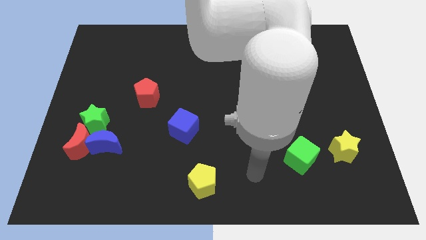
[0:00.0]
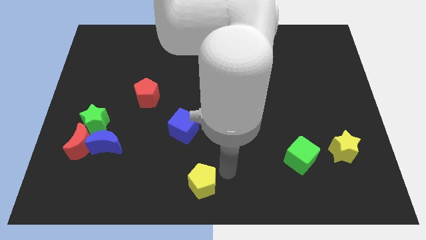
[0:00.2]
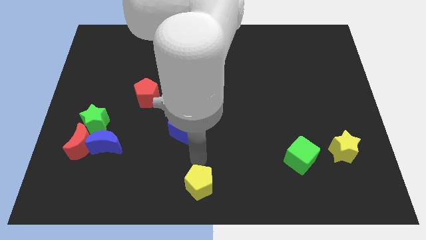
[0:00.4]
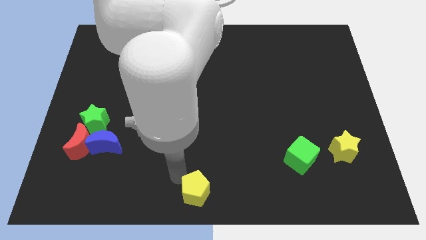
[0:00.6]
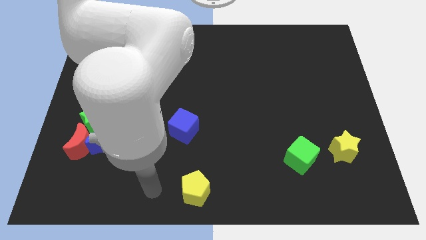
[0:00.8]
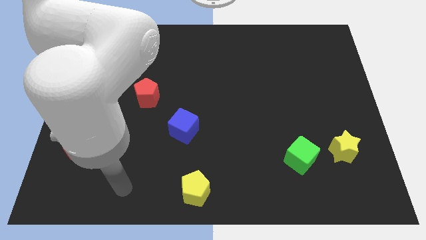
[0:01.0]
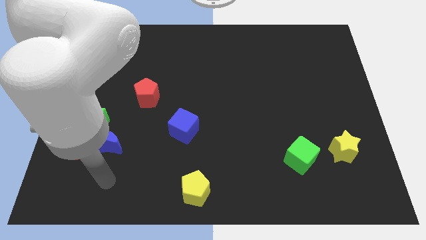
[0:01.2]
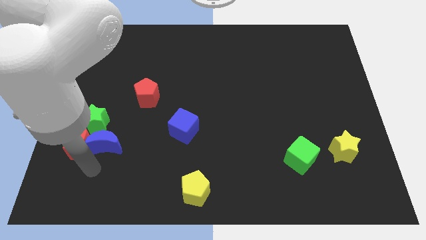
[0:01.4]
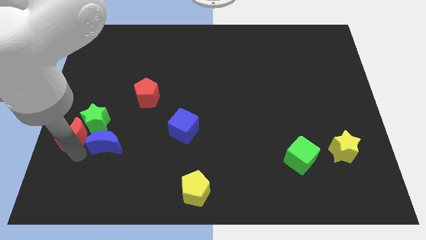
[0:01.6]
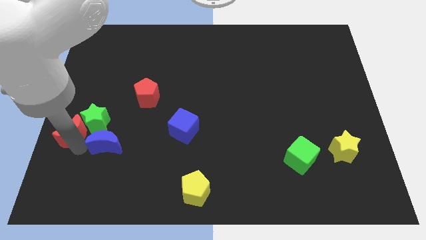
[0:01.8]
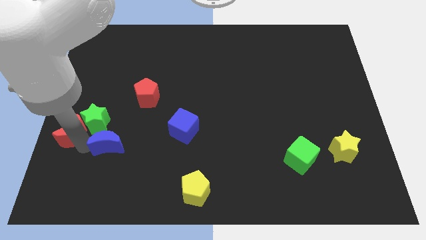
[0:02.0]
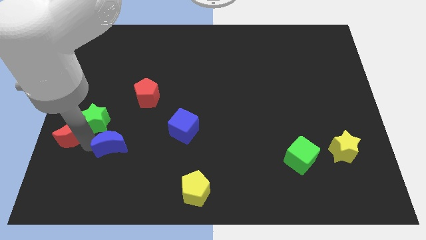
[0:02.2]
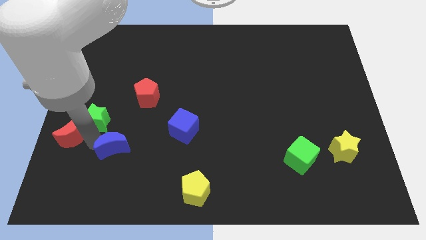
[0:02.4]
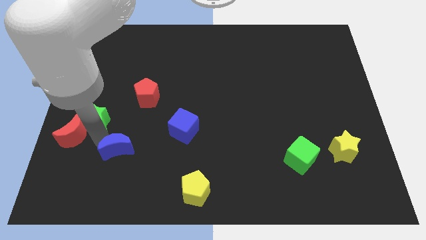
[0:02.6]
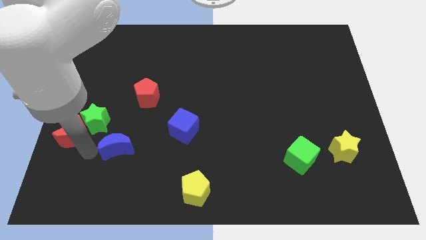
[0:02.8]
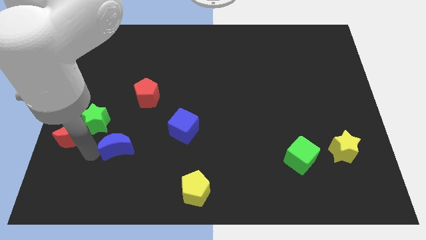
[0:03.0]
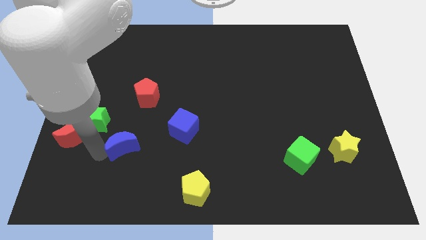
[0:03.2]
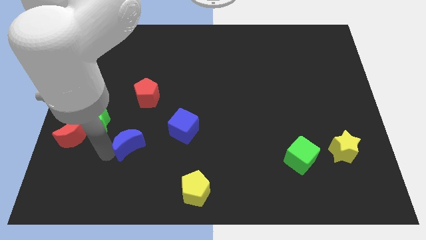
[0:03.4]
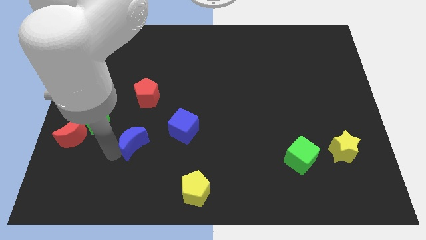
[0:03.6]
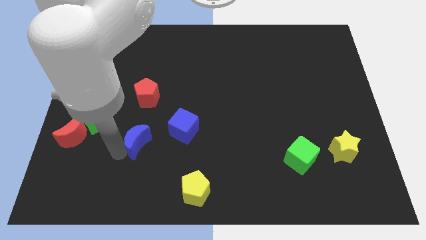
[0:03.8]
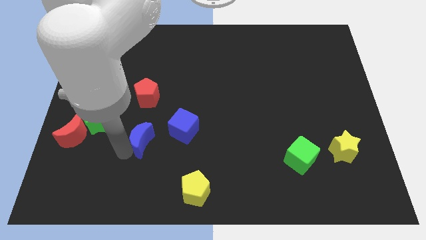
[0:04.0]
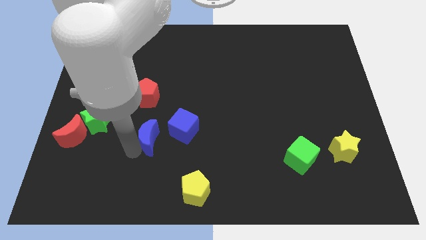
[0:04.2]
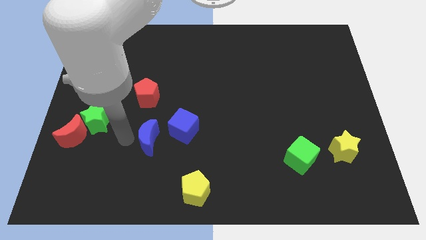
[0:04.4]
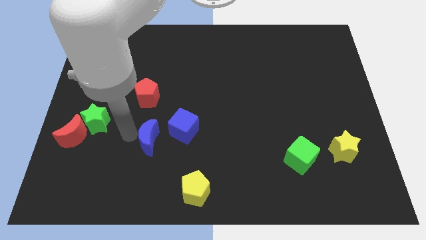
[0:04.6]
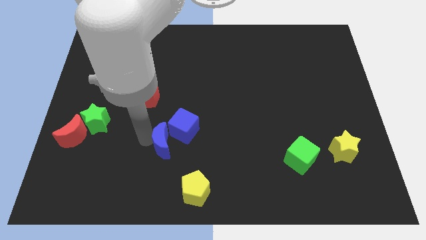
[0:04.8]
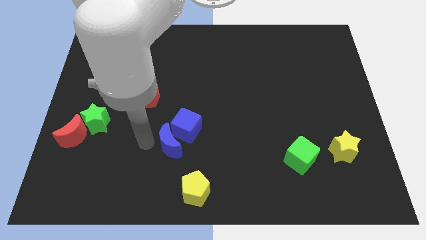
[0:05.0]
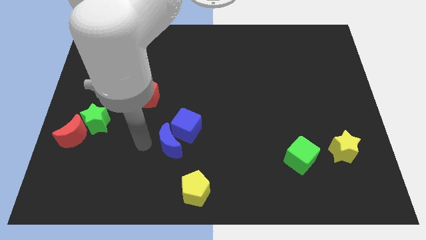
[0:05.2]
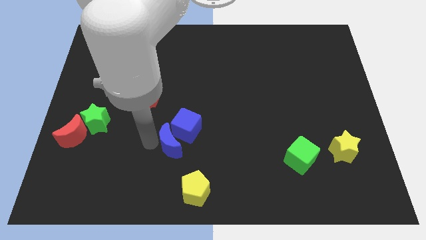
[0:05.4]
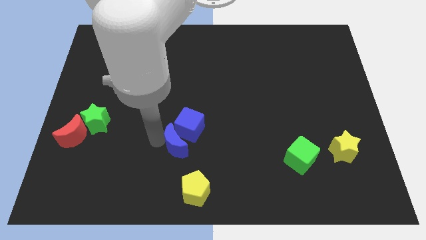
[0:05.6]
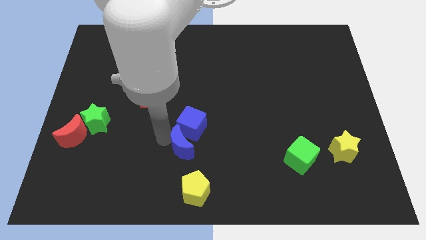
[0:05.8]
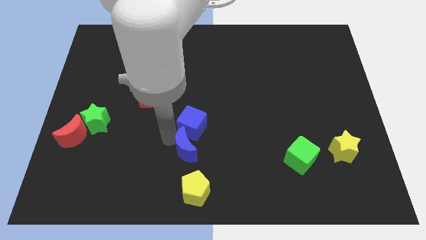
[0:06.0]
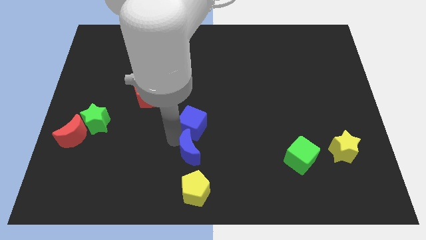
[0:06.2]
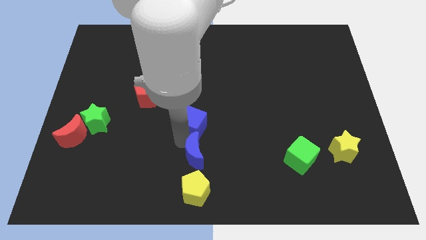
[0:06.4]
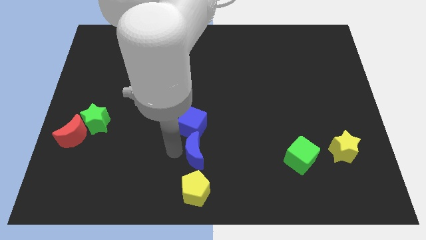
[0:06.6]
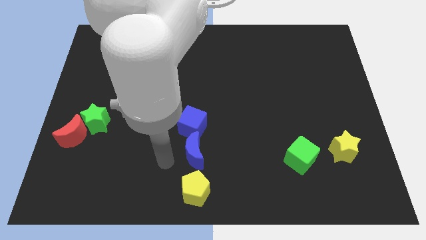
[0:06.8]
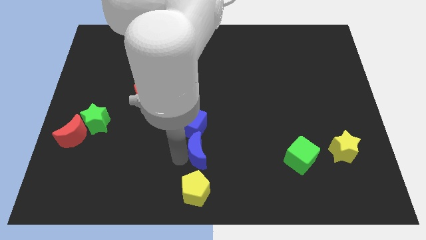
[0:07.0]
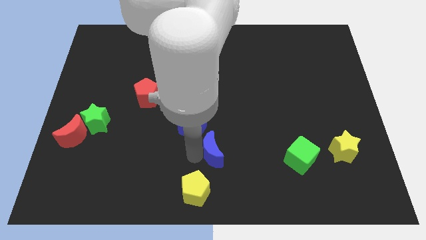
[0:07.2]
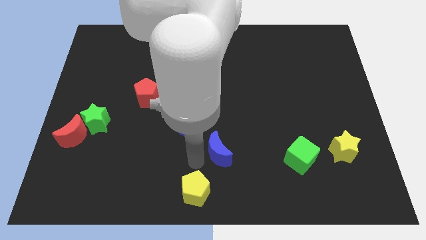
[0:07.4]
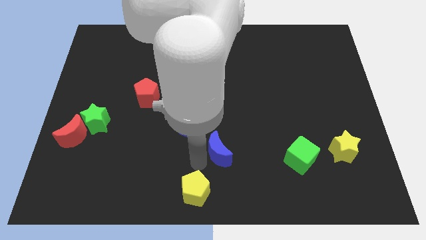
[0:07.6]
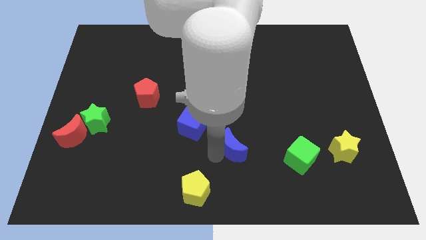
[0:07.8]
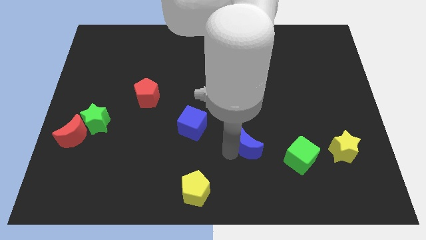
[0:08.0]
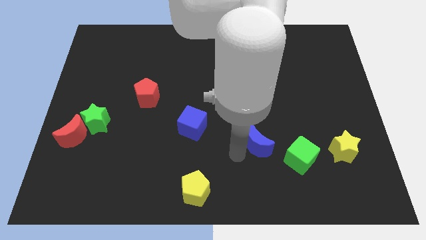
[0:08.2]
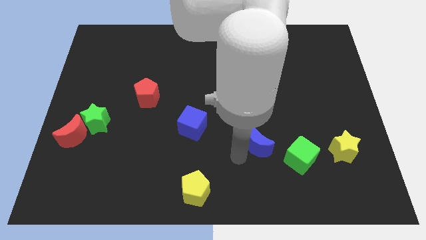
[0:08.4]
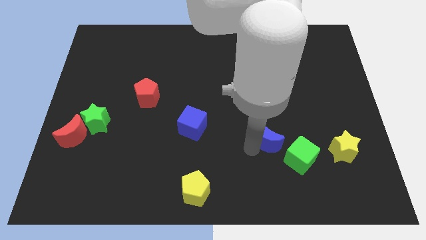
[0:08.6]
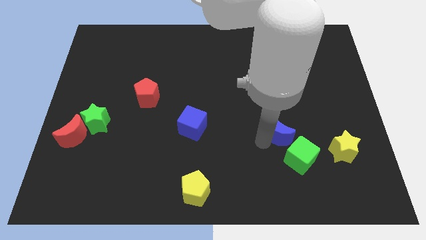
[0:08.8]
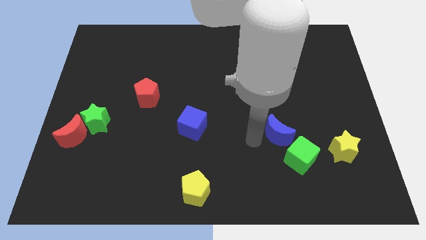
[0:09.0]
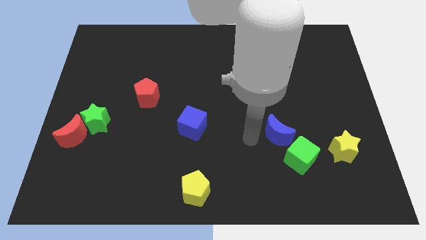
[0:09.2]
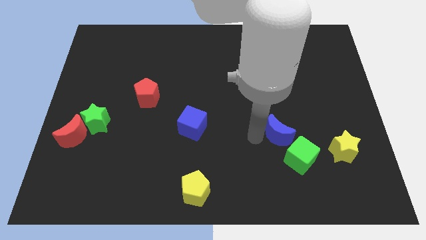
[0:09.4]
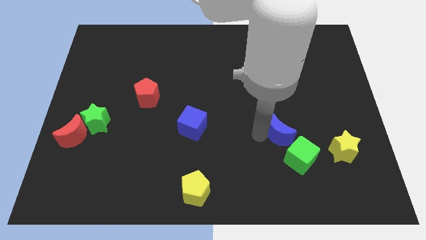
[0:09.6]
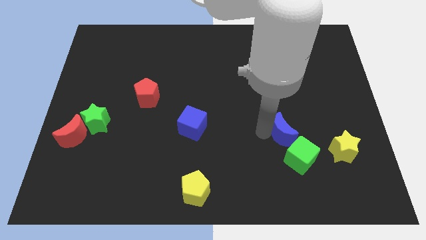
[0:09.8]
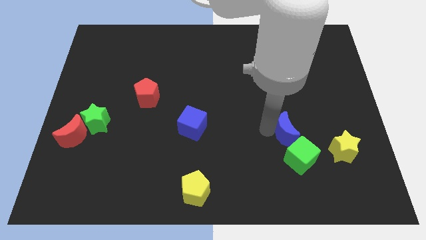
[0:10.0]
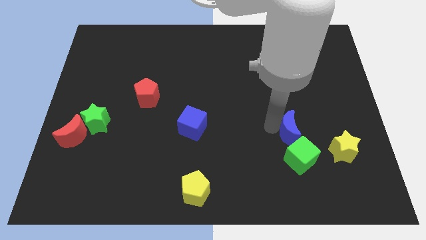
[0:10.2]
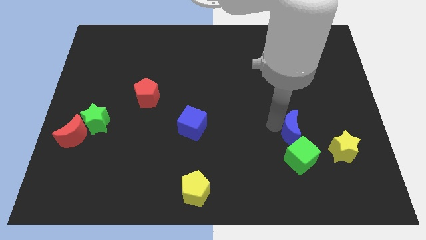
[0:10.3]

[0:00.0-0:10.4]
put the blue moon to the top left of the yellow star

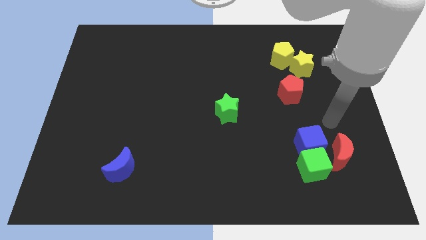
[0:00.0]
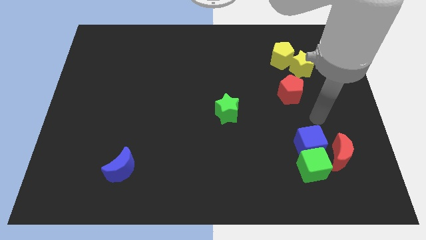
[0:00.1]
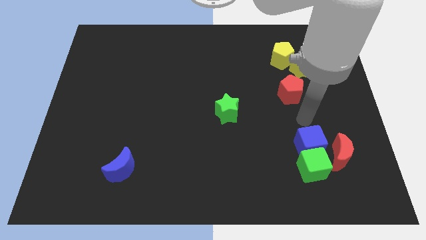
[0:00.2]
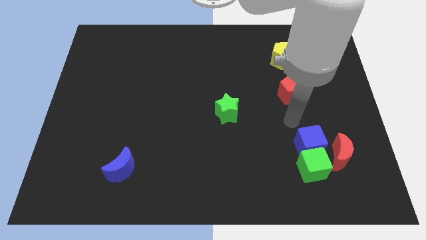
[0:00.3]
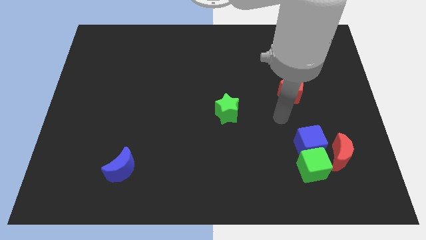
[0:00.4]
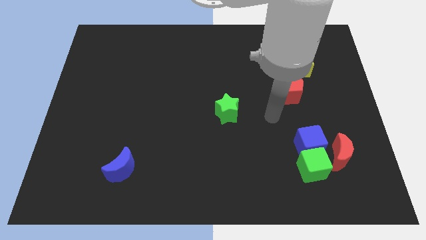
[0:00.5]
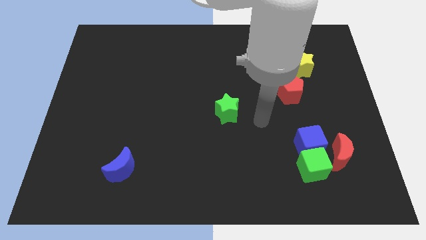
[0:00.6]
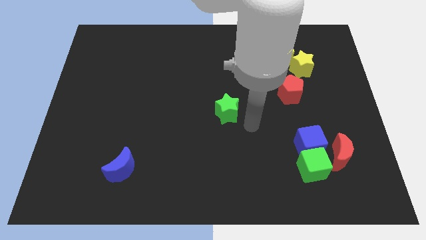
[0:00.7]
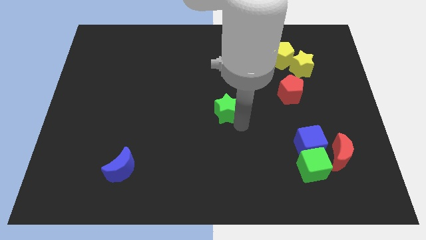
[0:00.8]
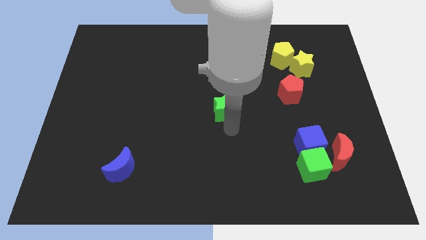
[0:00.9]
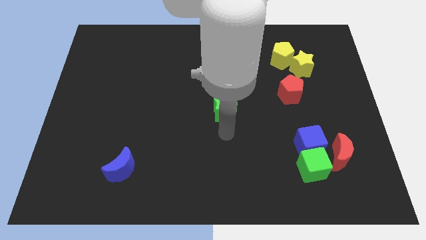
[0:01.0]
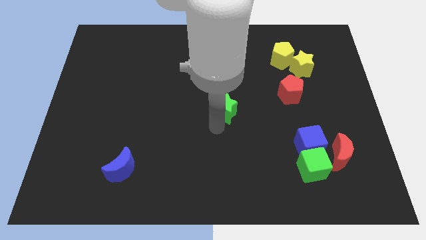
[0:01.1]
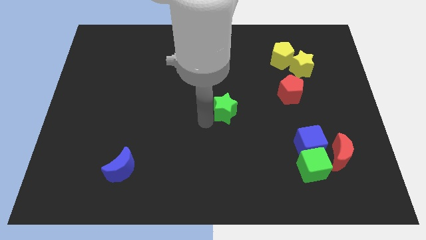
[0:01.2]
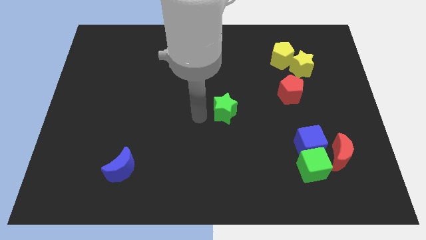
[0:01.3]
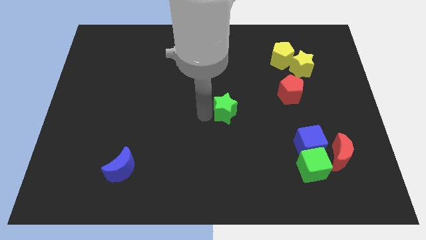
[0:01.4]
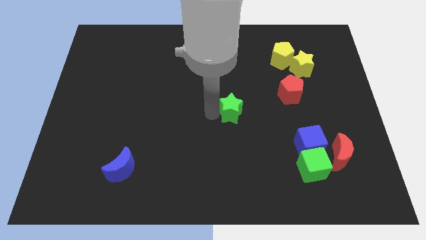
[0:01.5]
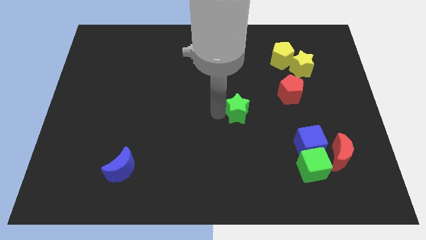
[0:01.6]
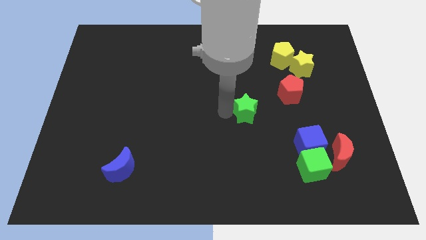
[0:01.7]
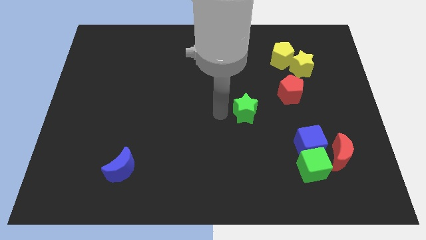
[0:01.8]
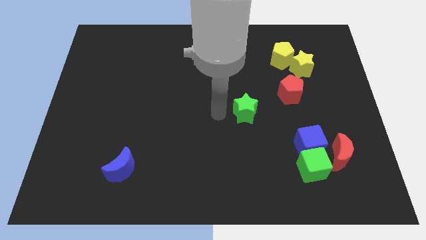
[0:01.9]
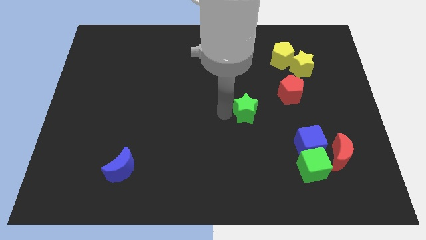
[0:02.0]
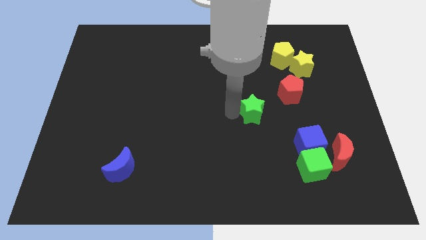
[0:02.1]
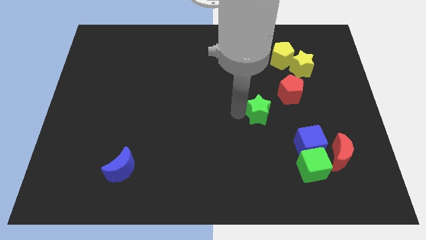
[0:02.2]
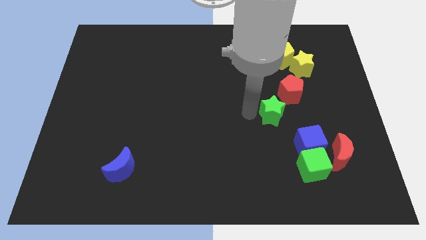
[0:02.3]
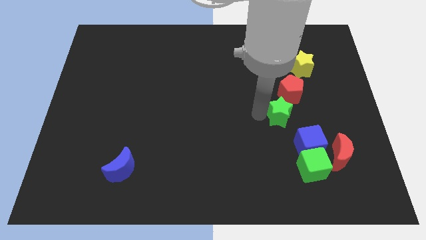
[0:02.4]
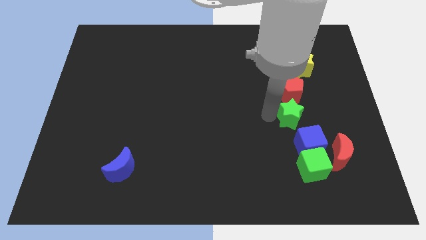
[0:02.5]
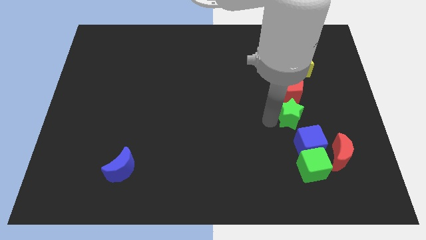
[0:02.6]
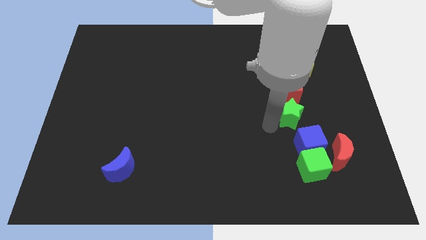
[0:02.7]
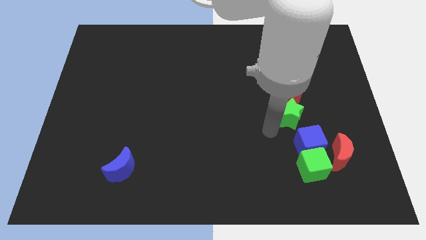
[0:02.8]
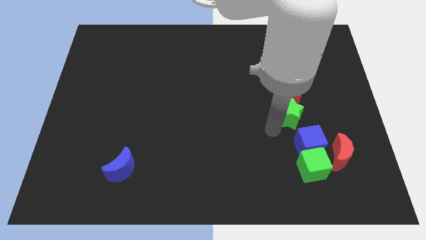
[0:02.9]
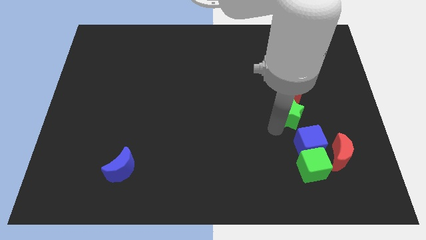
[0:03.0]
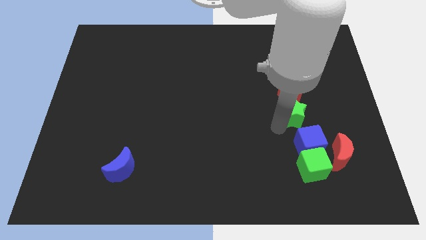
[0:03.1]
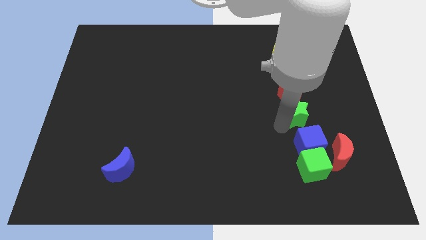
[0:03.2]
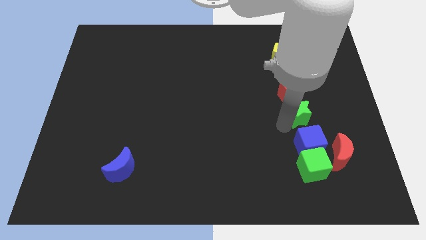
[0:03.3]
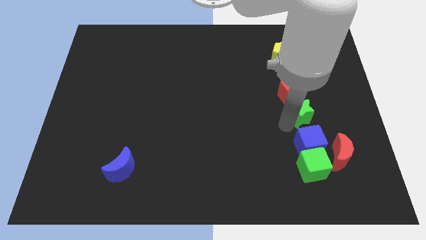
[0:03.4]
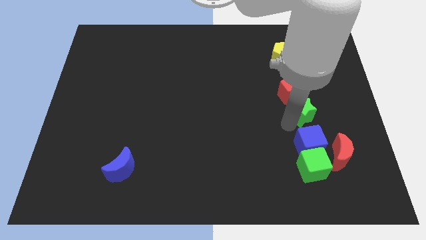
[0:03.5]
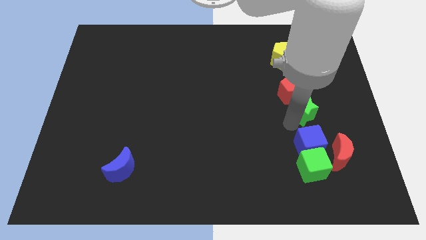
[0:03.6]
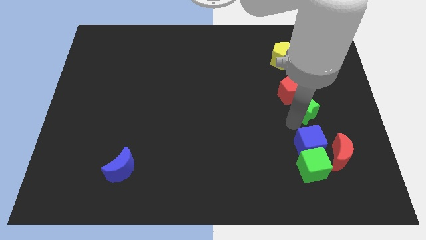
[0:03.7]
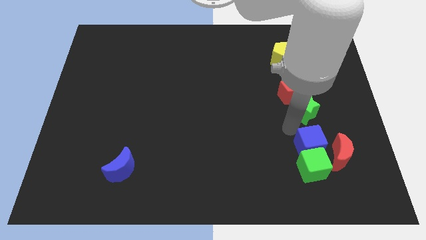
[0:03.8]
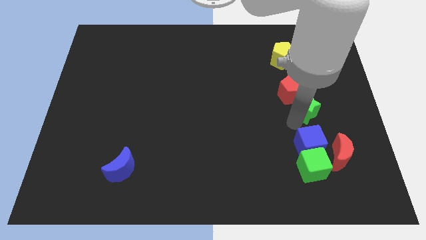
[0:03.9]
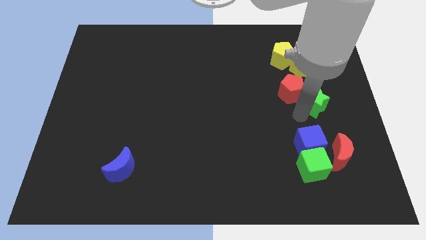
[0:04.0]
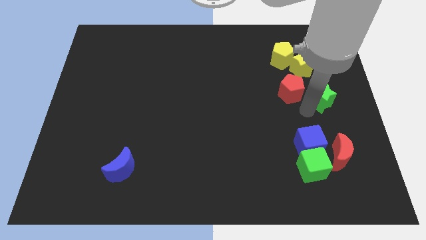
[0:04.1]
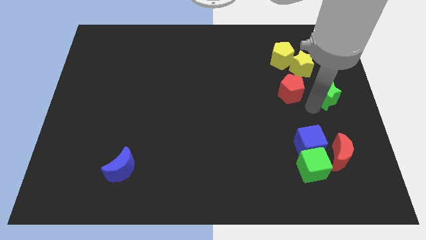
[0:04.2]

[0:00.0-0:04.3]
put the green star diagonally down and to the right of the yellow star
